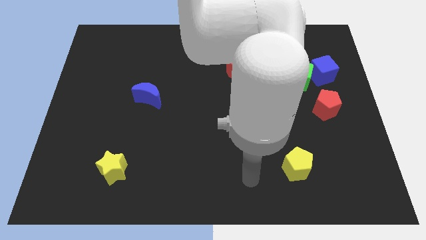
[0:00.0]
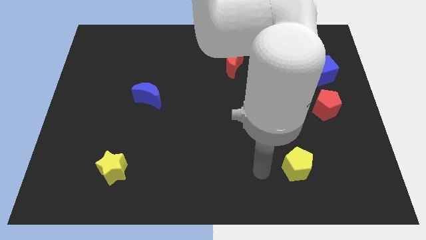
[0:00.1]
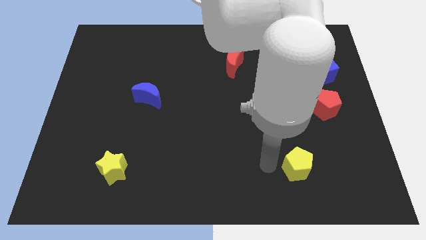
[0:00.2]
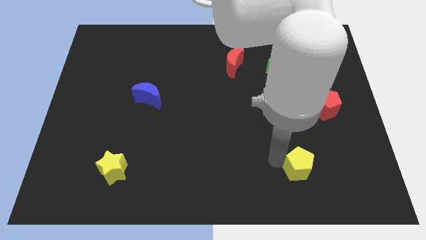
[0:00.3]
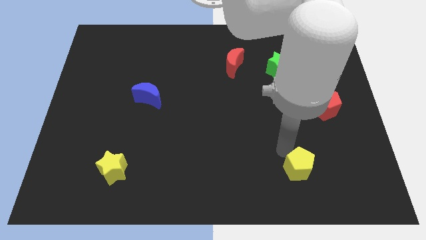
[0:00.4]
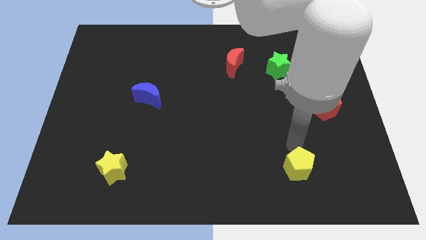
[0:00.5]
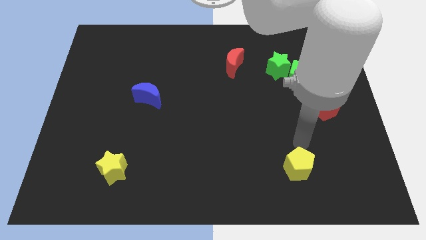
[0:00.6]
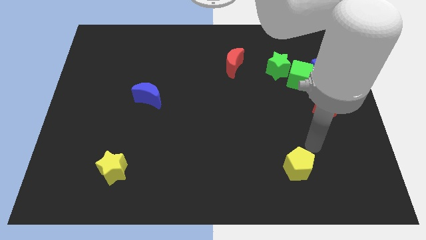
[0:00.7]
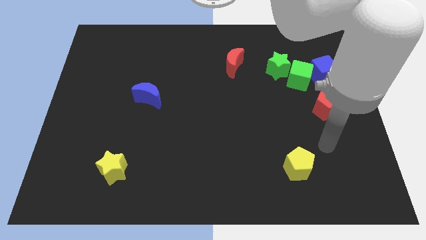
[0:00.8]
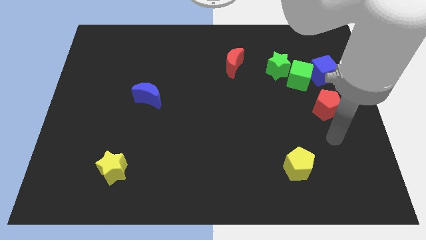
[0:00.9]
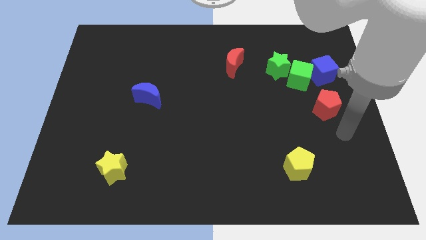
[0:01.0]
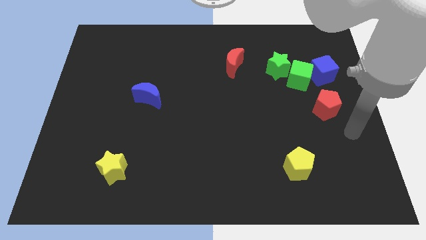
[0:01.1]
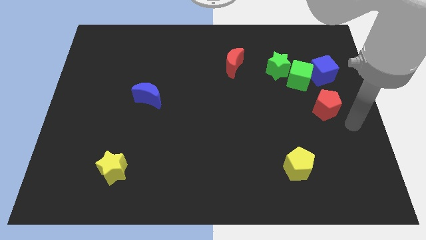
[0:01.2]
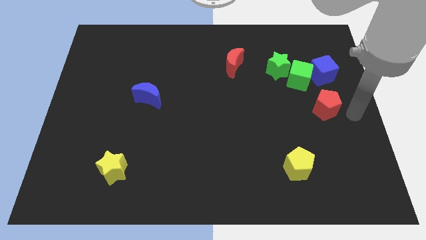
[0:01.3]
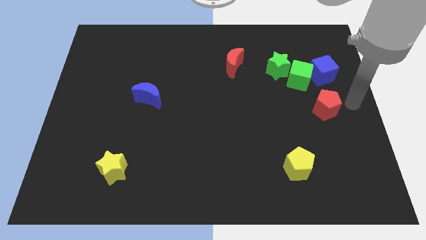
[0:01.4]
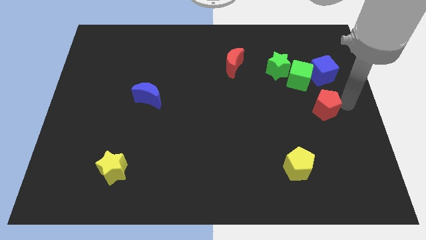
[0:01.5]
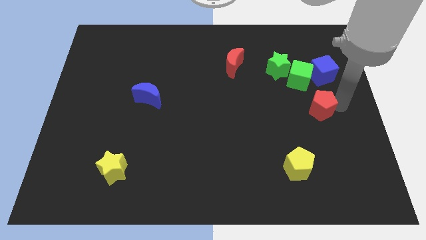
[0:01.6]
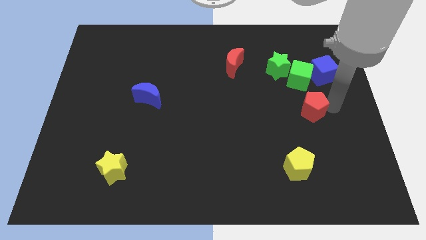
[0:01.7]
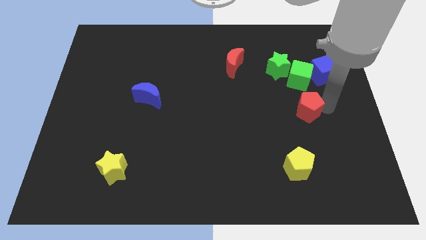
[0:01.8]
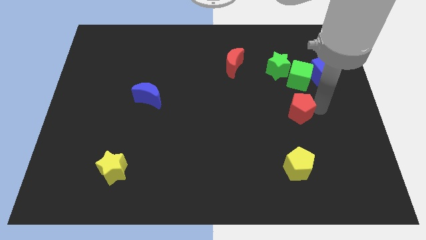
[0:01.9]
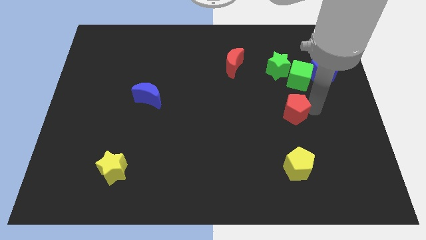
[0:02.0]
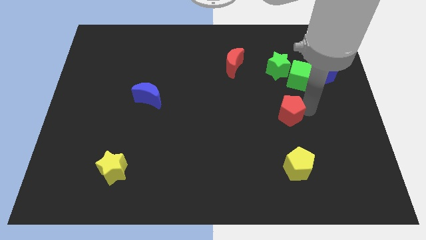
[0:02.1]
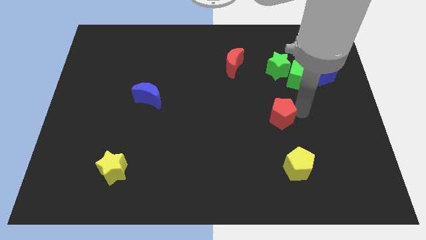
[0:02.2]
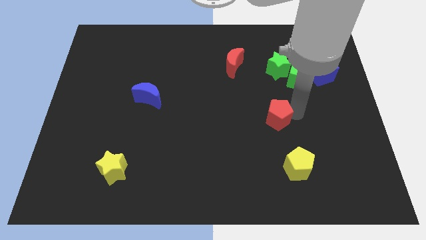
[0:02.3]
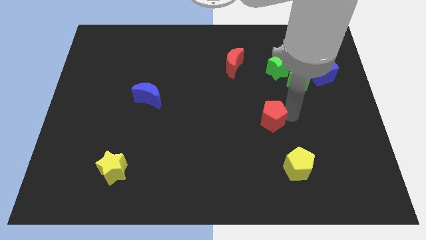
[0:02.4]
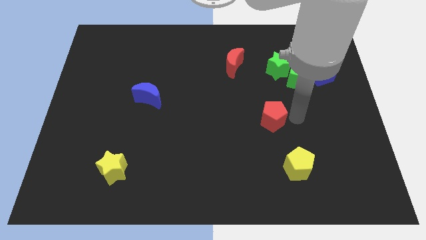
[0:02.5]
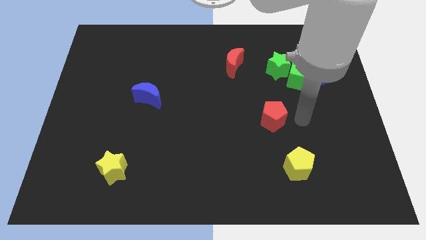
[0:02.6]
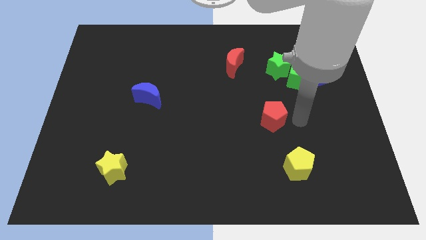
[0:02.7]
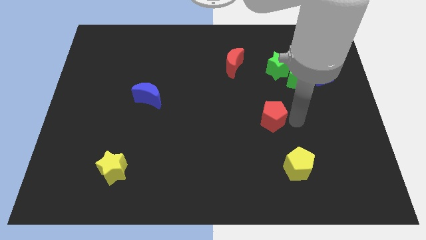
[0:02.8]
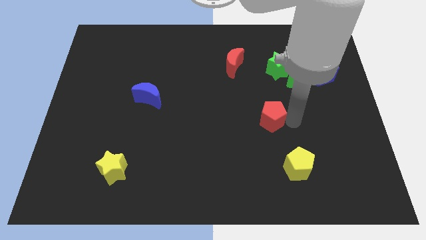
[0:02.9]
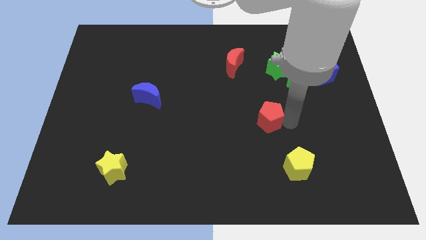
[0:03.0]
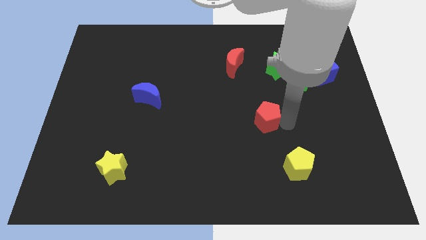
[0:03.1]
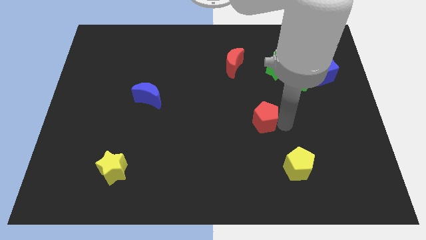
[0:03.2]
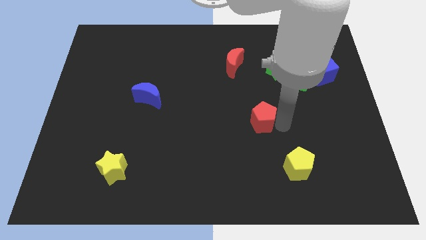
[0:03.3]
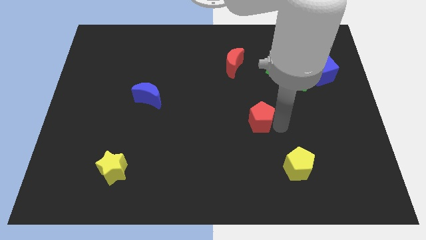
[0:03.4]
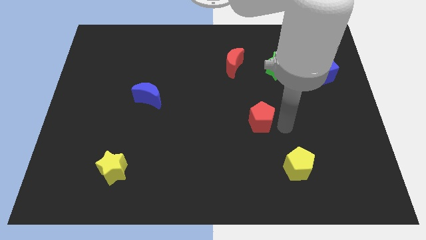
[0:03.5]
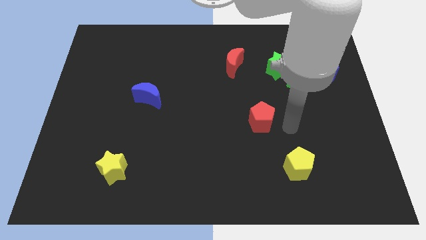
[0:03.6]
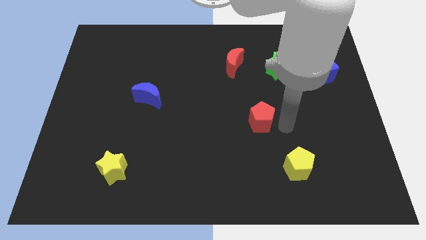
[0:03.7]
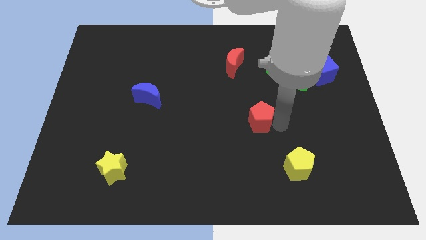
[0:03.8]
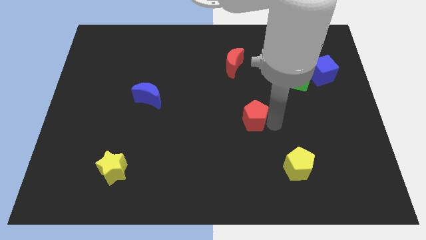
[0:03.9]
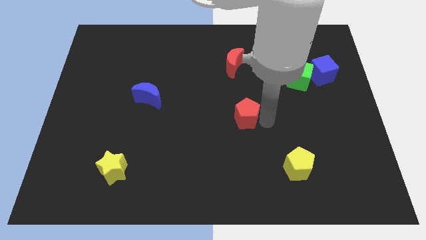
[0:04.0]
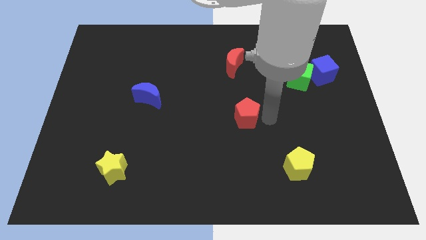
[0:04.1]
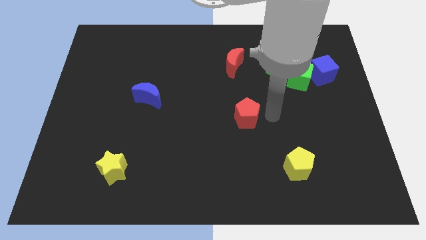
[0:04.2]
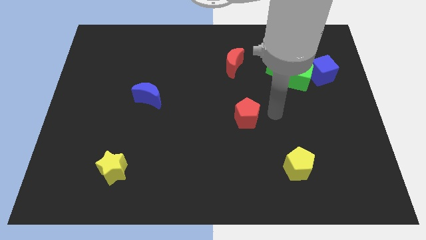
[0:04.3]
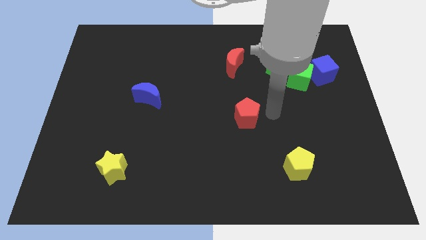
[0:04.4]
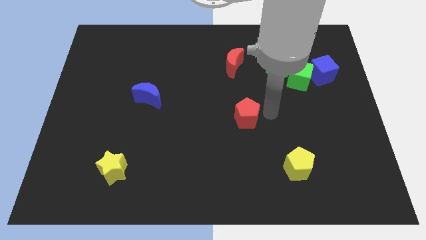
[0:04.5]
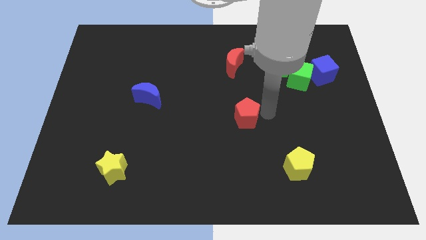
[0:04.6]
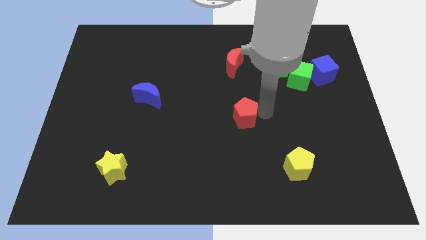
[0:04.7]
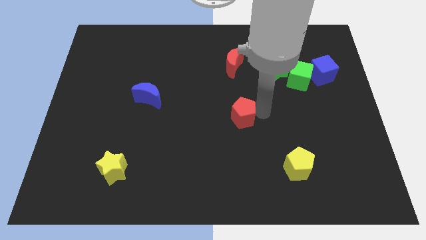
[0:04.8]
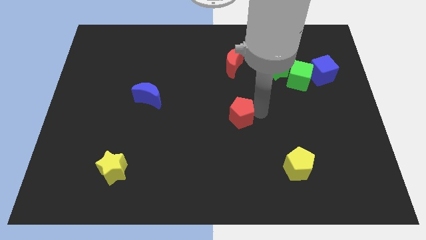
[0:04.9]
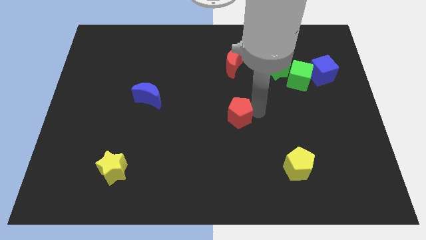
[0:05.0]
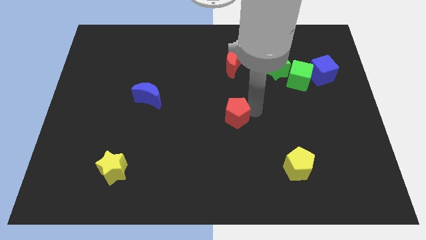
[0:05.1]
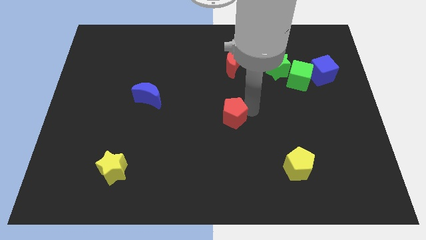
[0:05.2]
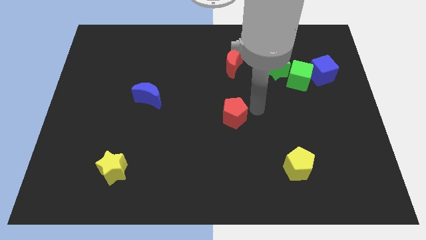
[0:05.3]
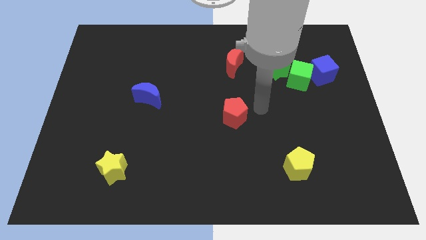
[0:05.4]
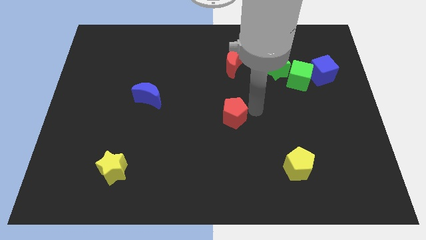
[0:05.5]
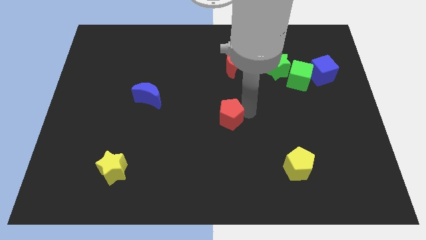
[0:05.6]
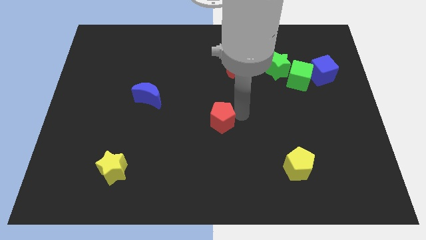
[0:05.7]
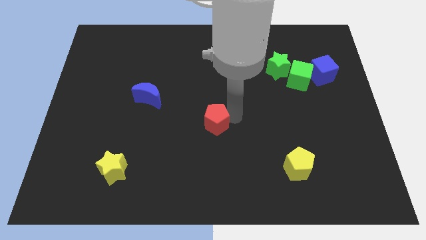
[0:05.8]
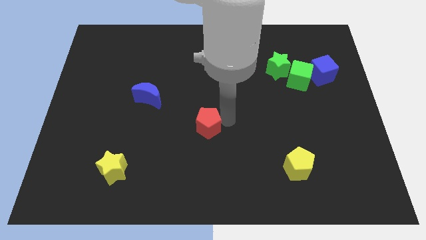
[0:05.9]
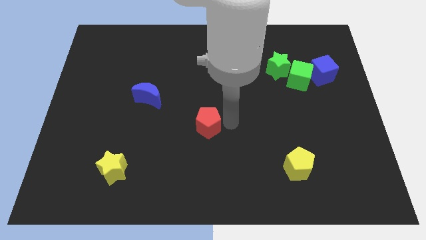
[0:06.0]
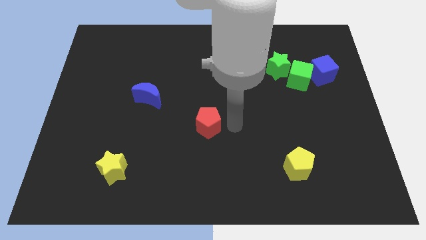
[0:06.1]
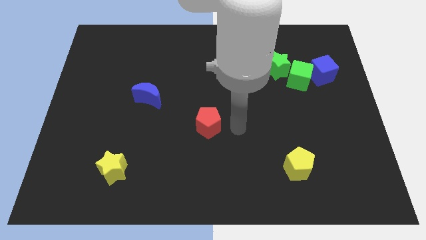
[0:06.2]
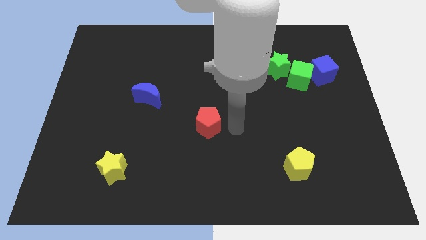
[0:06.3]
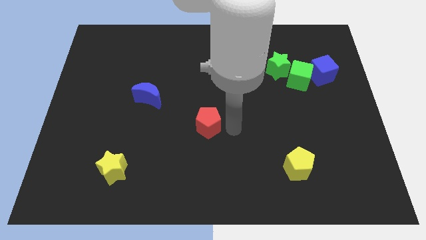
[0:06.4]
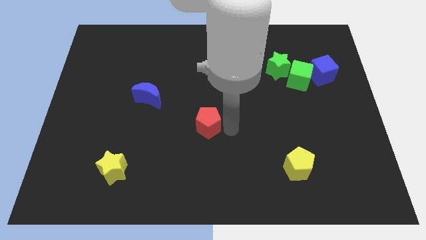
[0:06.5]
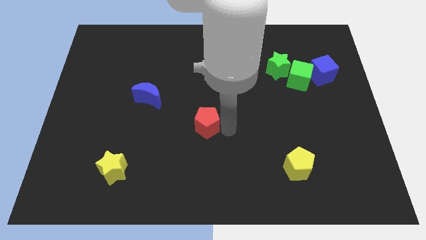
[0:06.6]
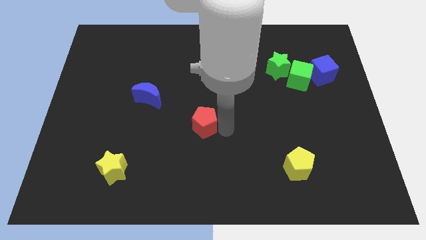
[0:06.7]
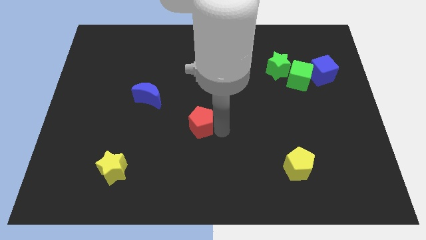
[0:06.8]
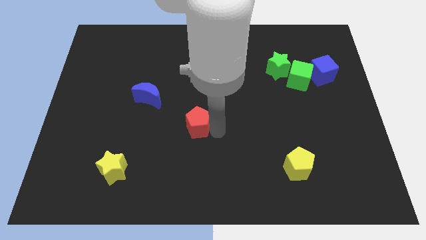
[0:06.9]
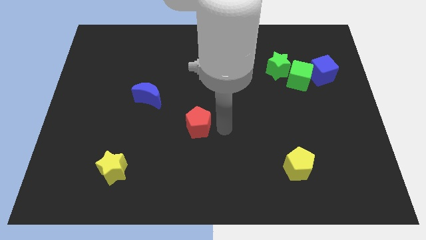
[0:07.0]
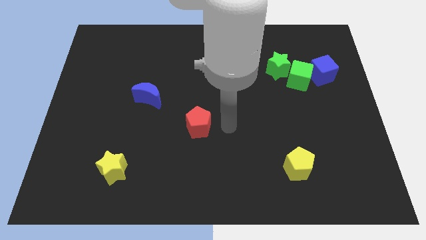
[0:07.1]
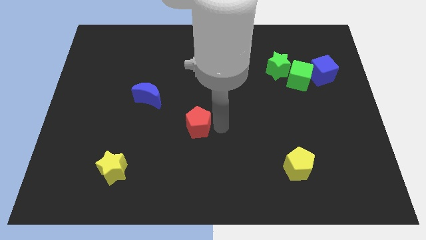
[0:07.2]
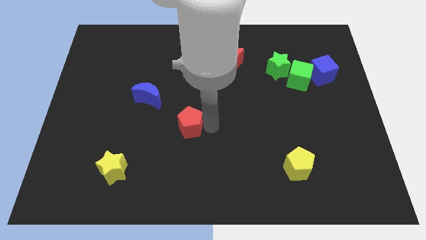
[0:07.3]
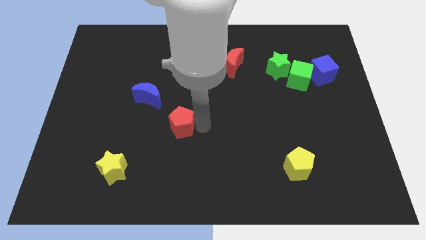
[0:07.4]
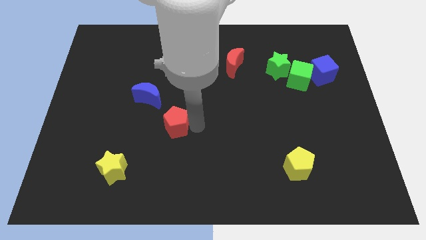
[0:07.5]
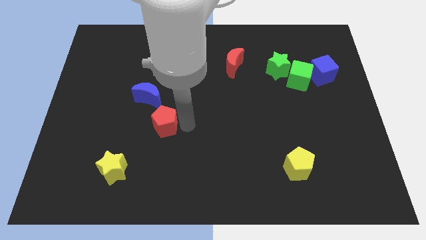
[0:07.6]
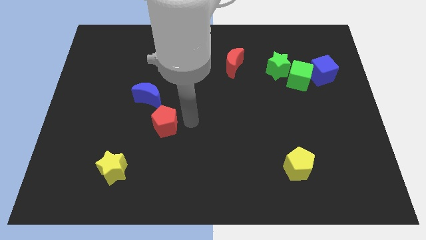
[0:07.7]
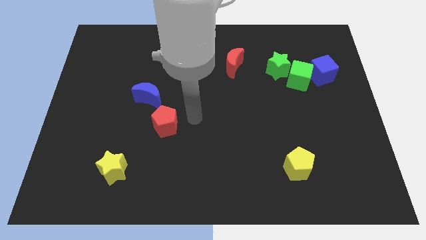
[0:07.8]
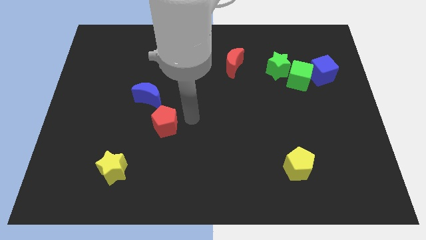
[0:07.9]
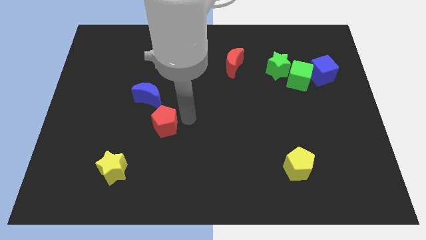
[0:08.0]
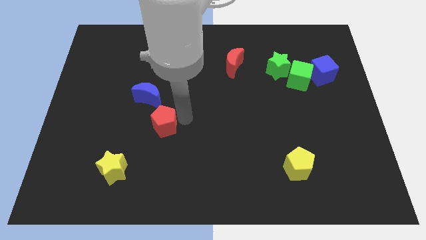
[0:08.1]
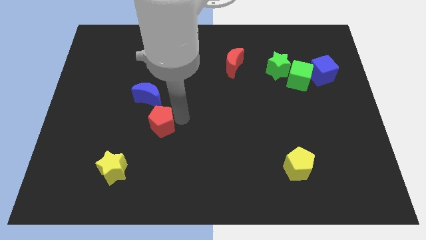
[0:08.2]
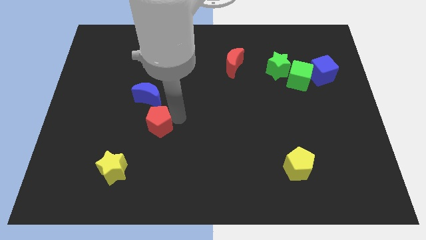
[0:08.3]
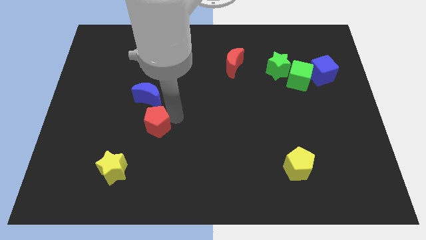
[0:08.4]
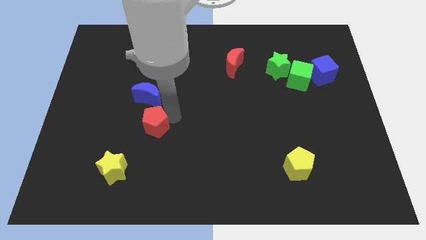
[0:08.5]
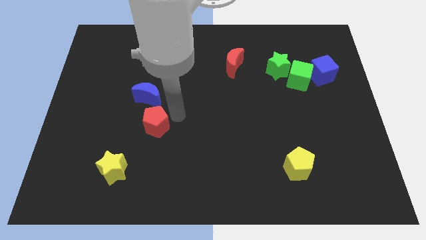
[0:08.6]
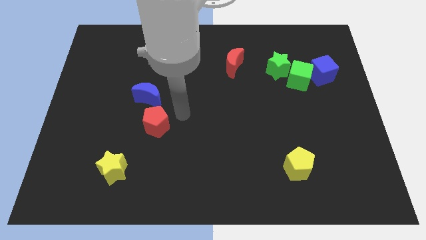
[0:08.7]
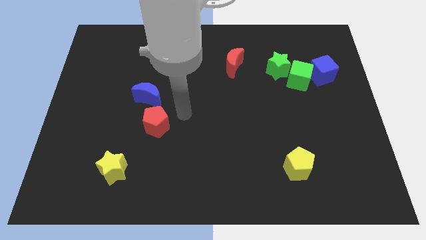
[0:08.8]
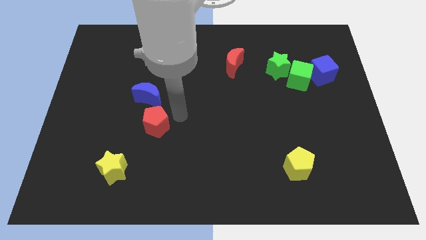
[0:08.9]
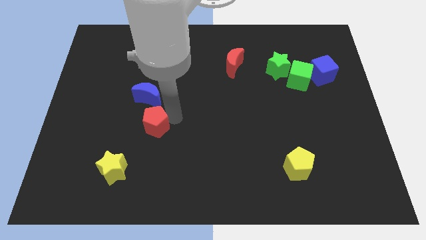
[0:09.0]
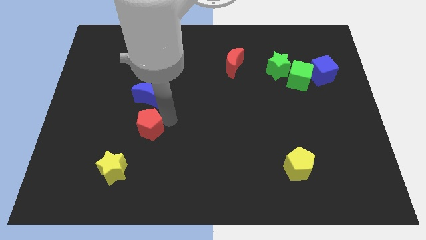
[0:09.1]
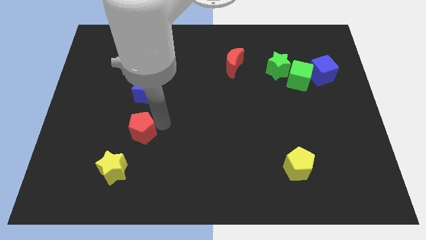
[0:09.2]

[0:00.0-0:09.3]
put the red pentagon to the top of the yellow star
